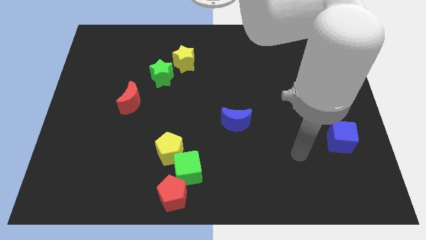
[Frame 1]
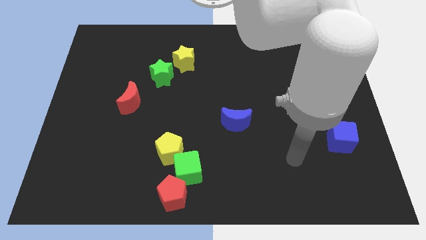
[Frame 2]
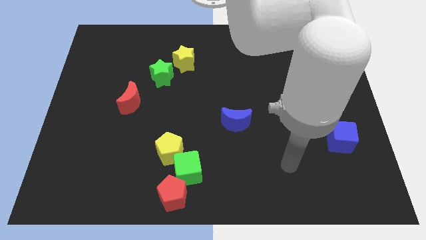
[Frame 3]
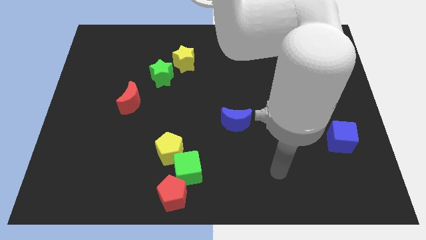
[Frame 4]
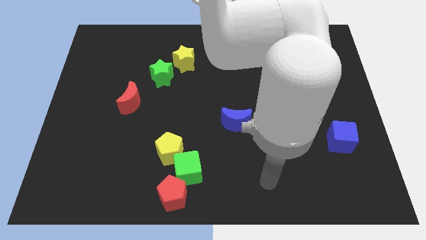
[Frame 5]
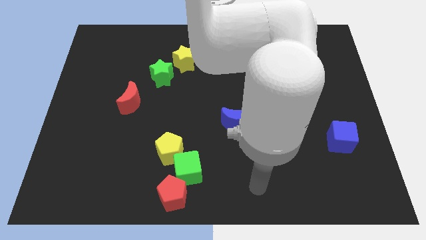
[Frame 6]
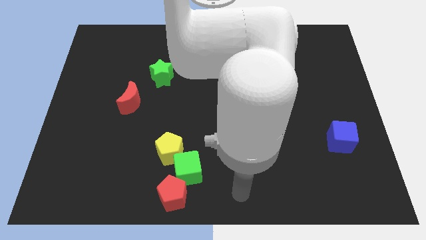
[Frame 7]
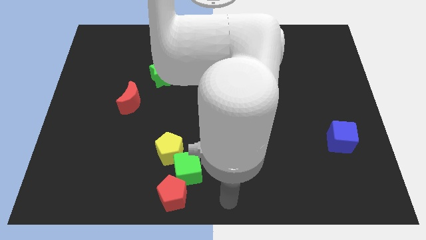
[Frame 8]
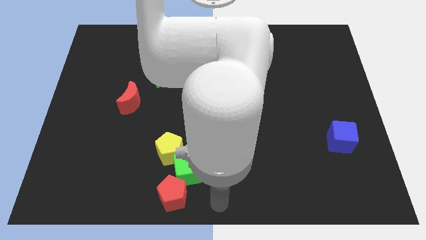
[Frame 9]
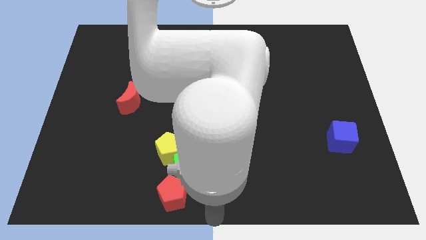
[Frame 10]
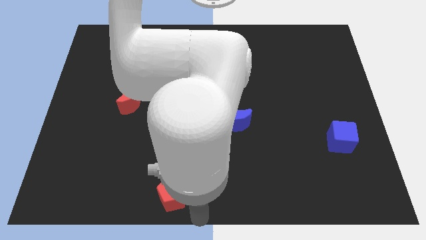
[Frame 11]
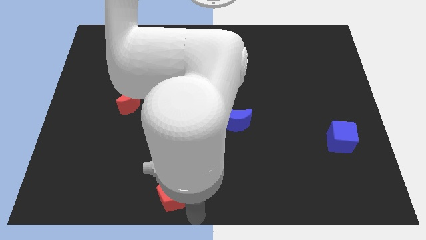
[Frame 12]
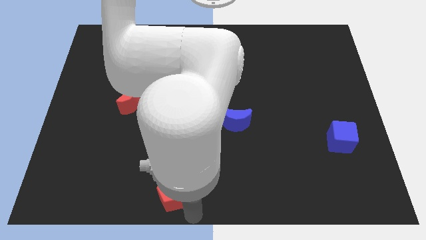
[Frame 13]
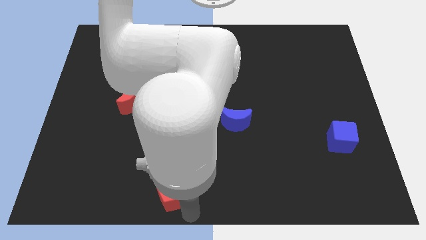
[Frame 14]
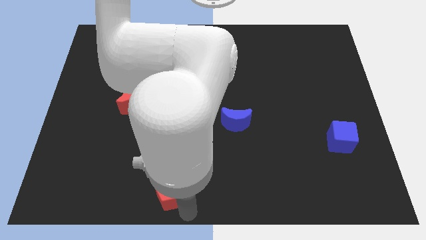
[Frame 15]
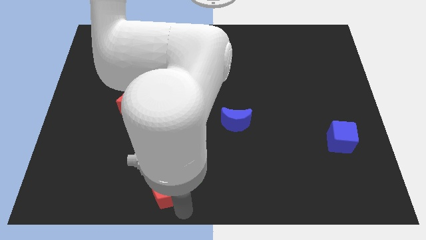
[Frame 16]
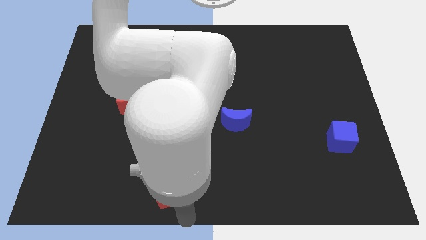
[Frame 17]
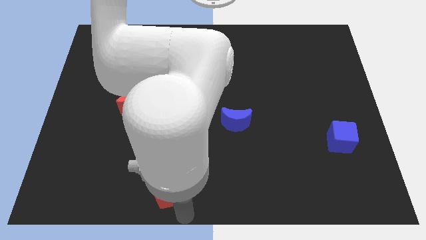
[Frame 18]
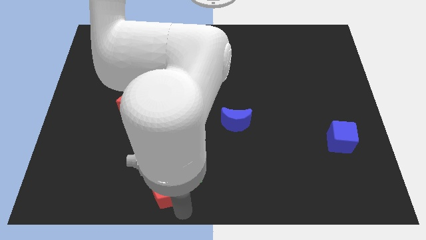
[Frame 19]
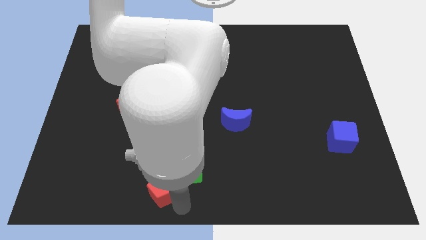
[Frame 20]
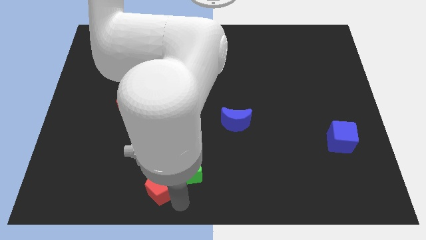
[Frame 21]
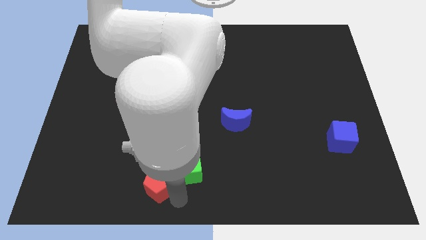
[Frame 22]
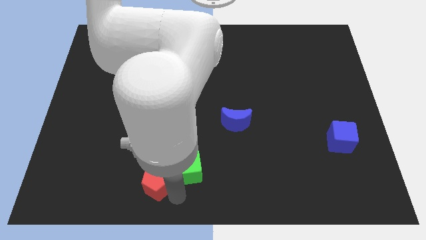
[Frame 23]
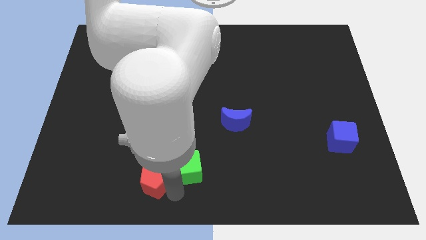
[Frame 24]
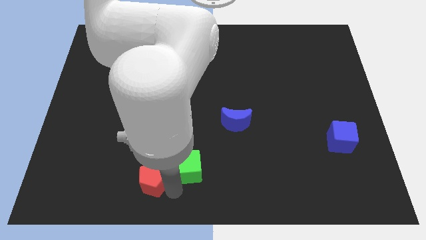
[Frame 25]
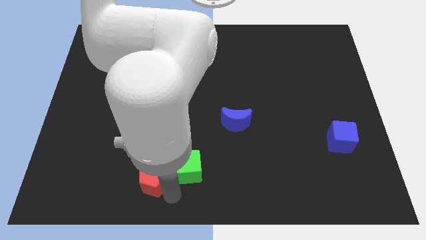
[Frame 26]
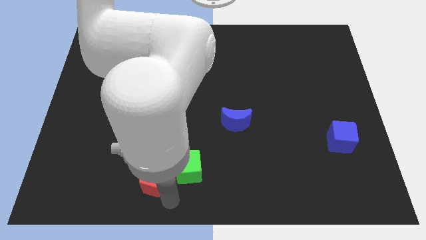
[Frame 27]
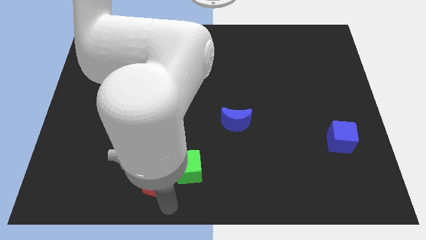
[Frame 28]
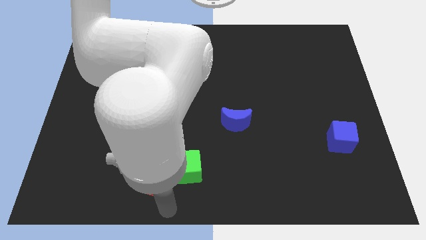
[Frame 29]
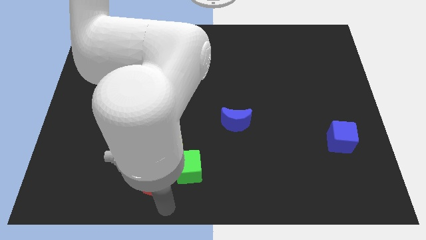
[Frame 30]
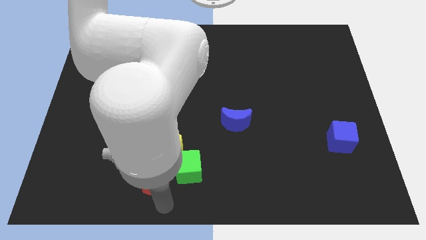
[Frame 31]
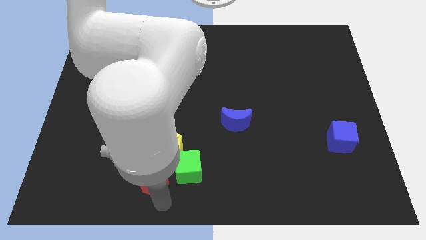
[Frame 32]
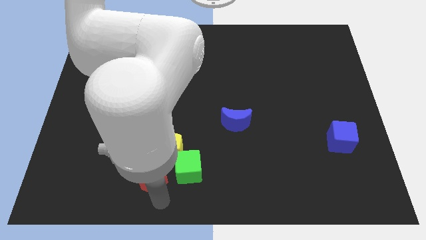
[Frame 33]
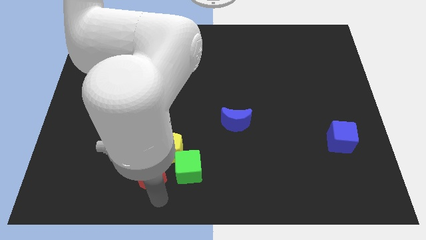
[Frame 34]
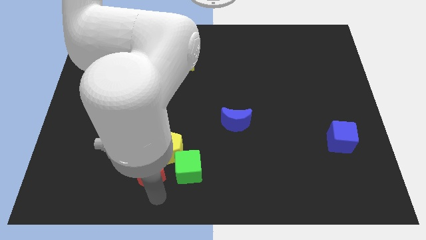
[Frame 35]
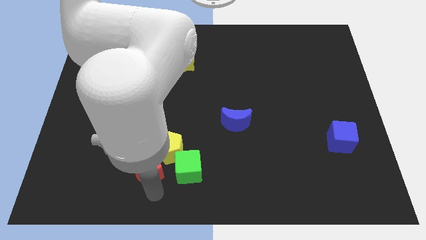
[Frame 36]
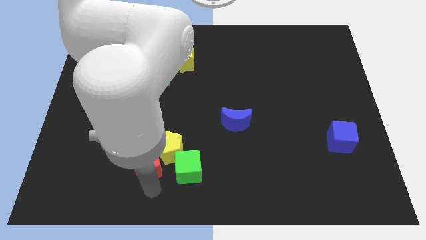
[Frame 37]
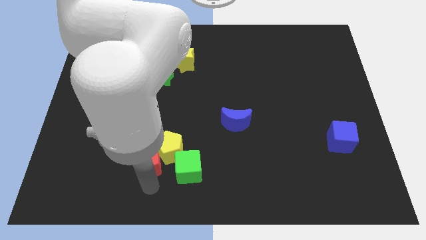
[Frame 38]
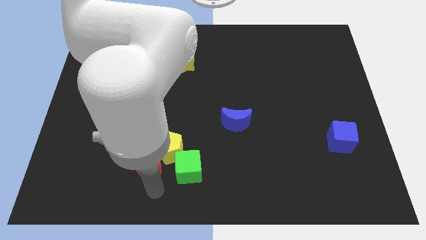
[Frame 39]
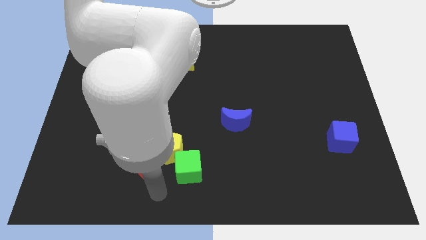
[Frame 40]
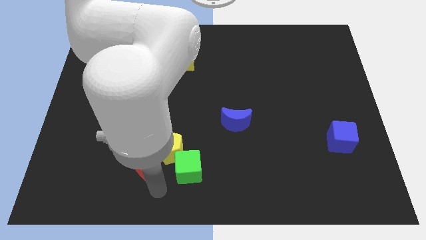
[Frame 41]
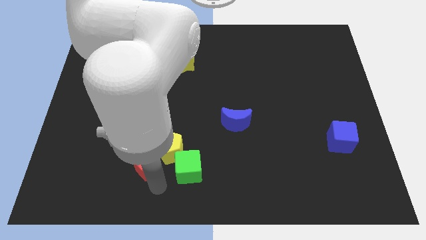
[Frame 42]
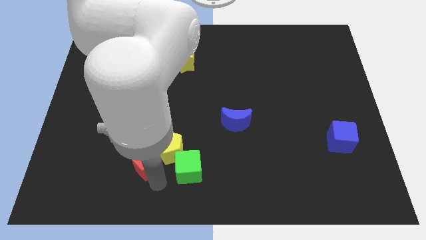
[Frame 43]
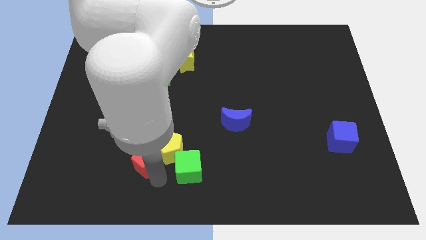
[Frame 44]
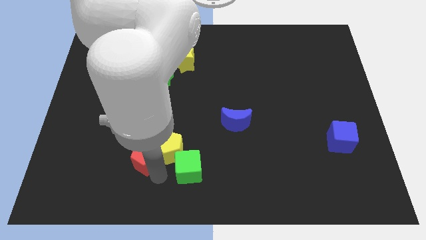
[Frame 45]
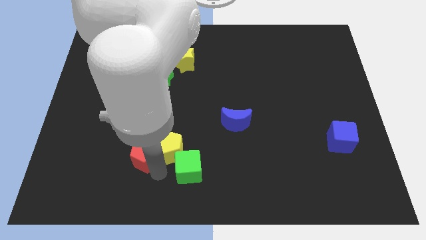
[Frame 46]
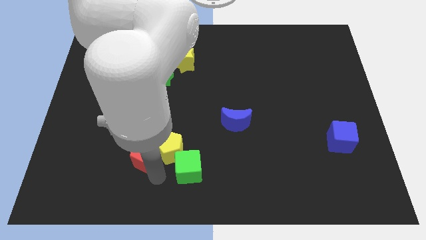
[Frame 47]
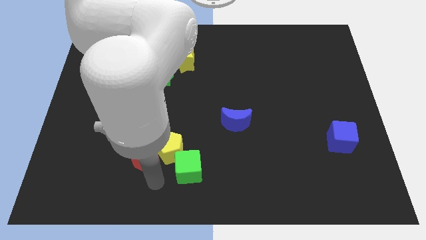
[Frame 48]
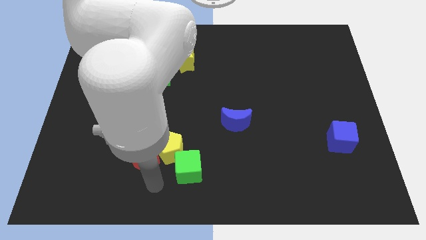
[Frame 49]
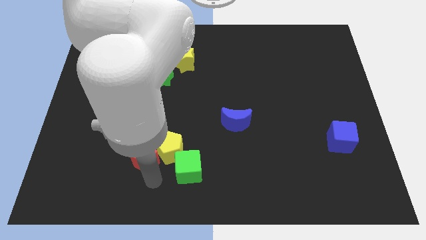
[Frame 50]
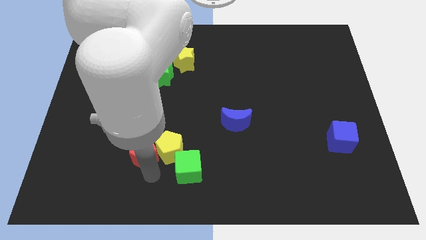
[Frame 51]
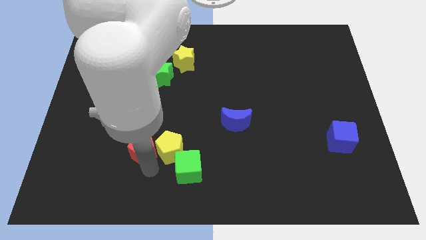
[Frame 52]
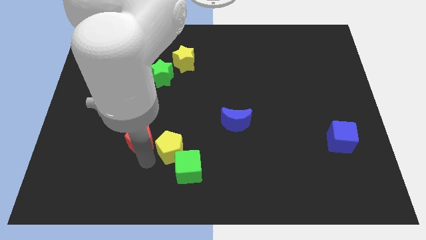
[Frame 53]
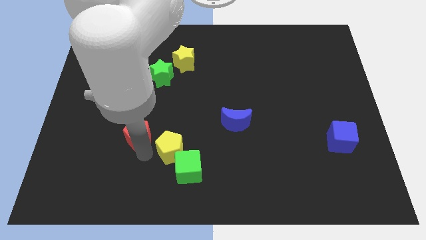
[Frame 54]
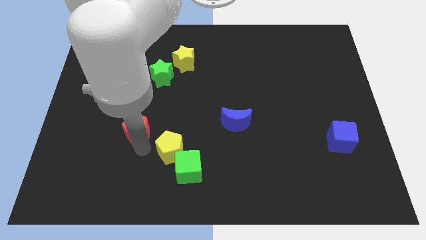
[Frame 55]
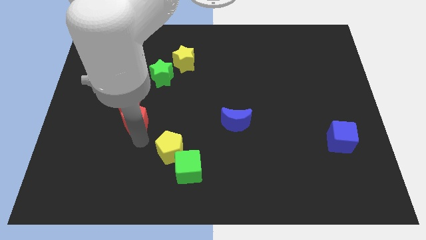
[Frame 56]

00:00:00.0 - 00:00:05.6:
slide the red pentagon to the red moon

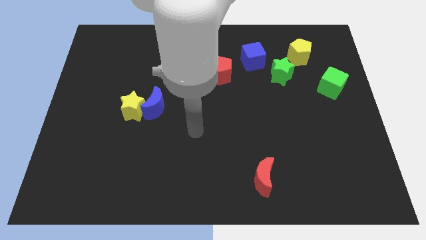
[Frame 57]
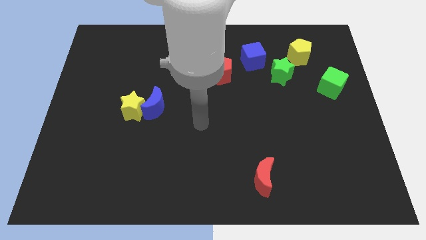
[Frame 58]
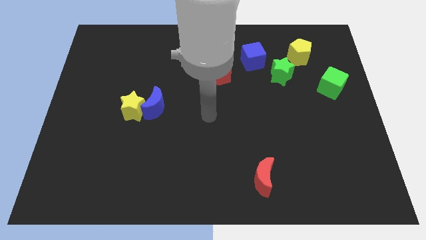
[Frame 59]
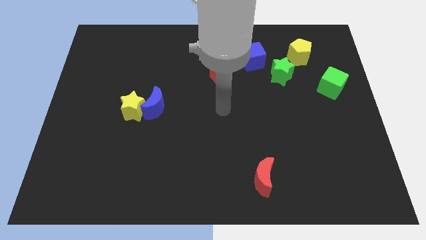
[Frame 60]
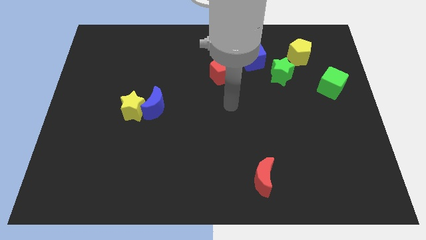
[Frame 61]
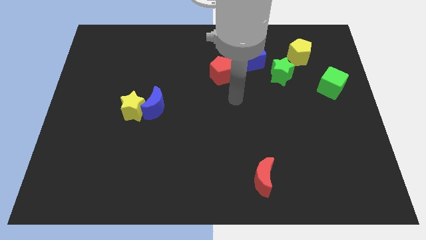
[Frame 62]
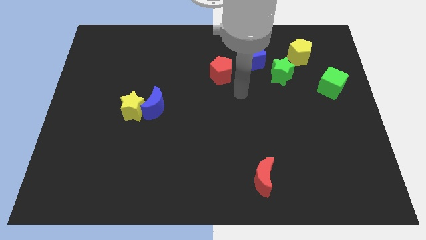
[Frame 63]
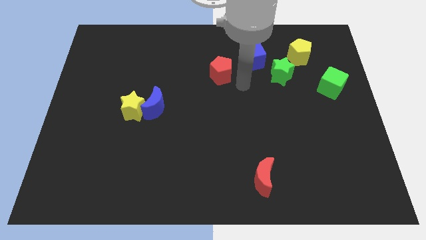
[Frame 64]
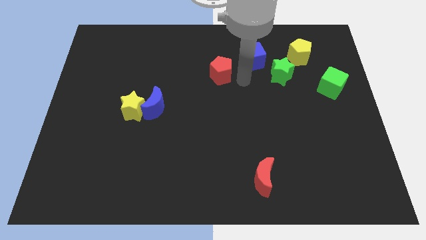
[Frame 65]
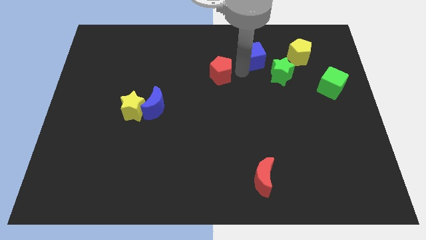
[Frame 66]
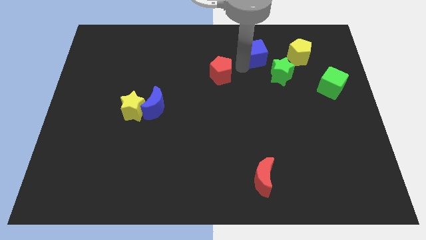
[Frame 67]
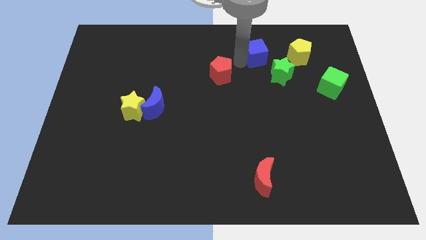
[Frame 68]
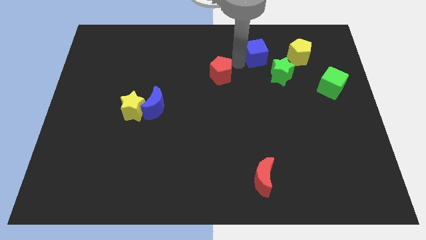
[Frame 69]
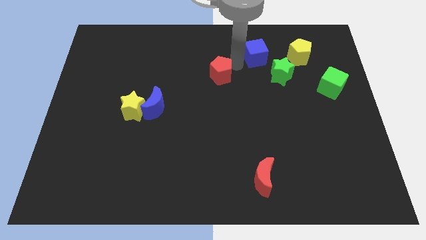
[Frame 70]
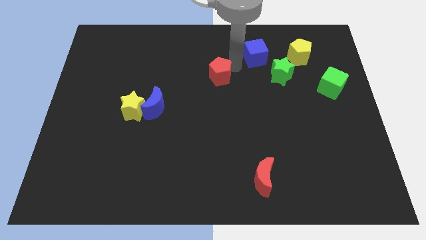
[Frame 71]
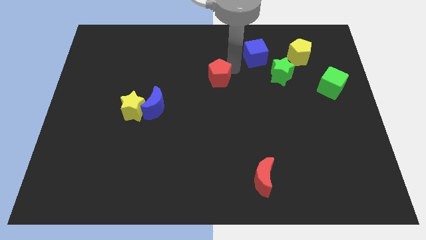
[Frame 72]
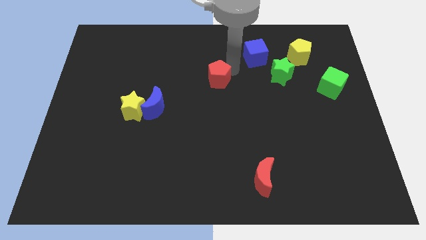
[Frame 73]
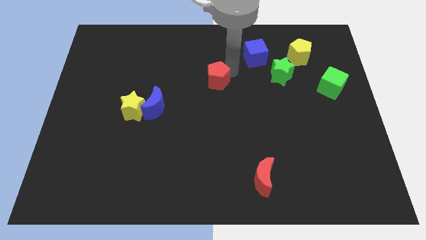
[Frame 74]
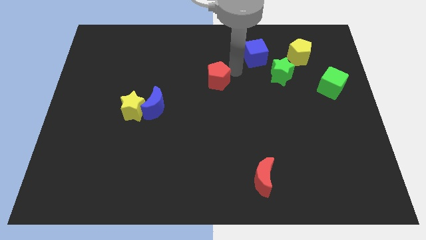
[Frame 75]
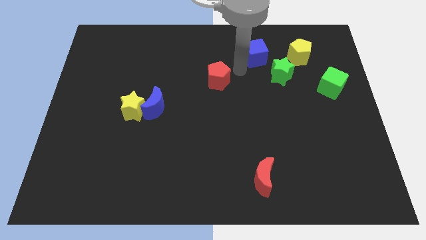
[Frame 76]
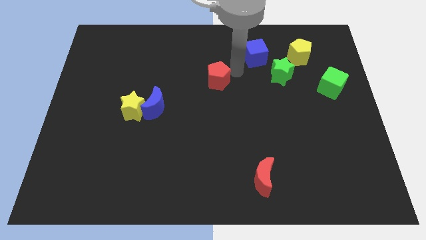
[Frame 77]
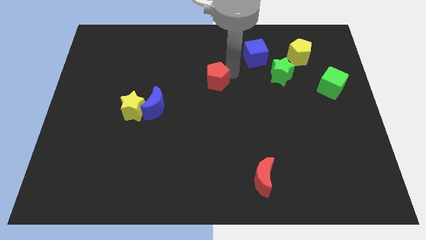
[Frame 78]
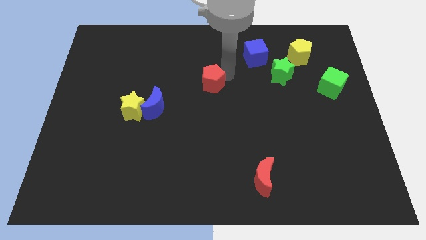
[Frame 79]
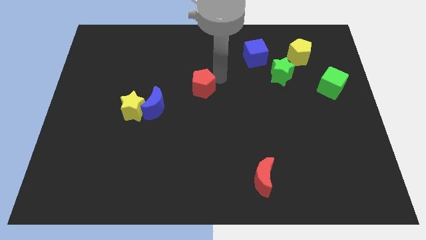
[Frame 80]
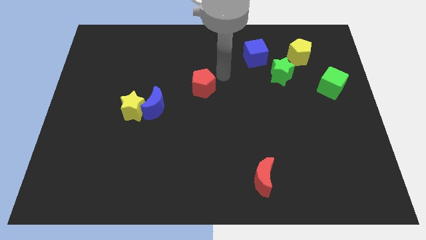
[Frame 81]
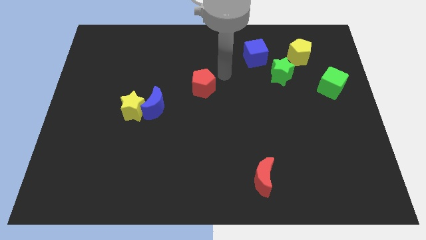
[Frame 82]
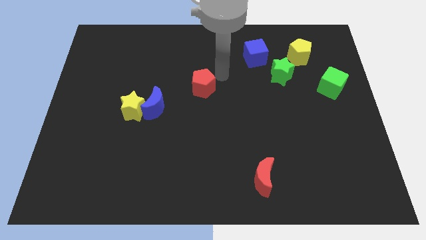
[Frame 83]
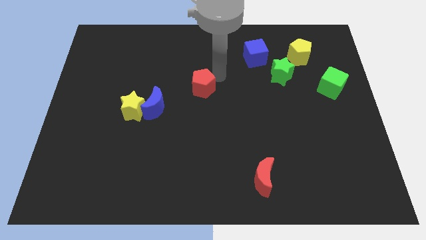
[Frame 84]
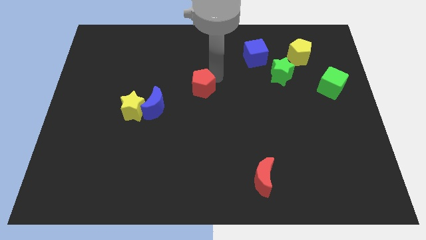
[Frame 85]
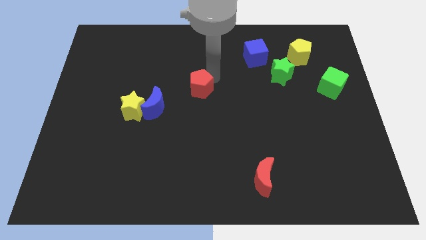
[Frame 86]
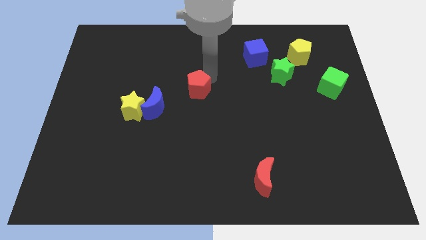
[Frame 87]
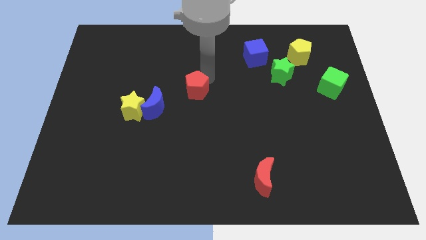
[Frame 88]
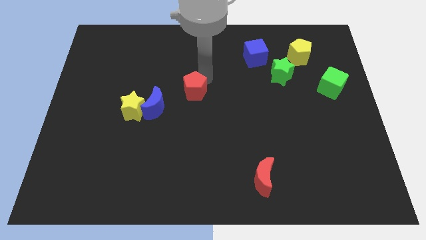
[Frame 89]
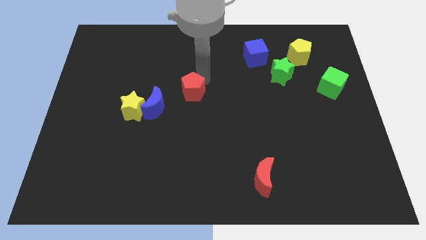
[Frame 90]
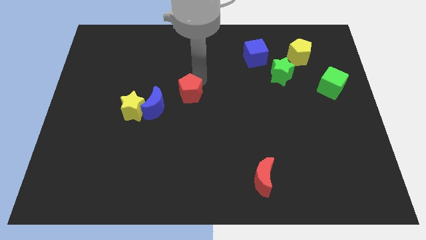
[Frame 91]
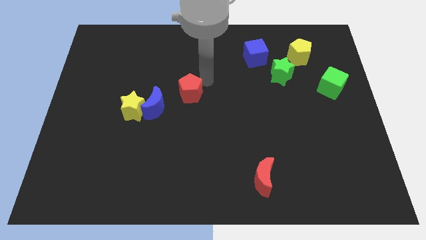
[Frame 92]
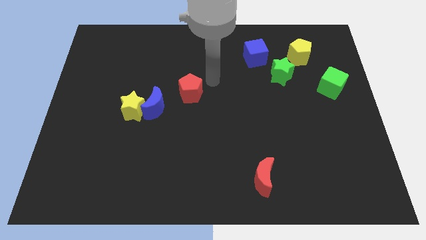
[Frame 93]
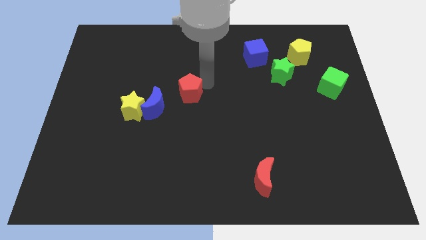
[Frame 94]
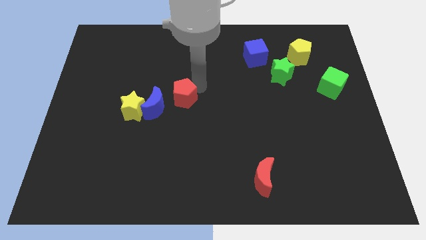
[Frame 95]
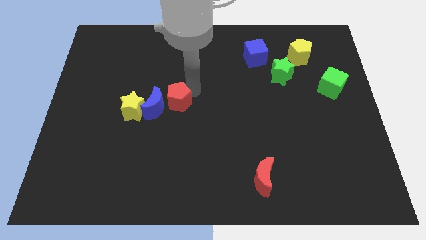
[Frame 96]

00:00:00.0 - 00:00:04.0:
push the red pentagon next to the blue moon
